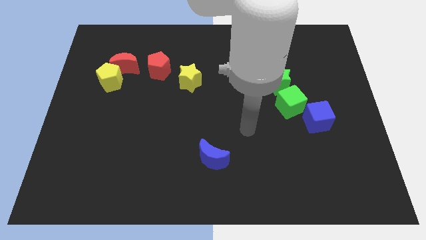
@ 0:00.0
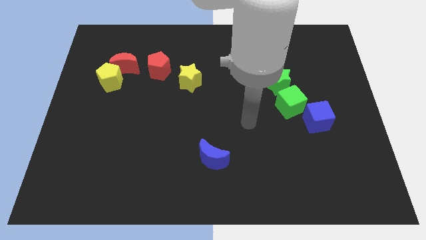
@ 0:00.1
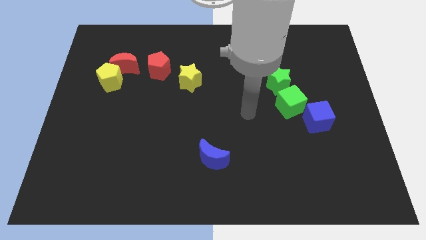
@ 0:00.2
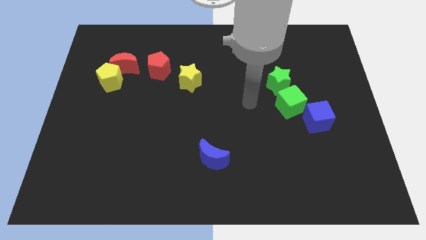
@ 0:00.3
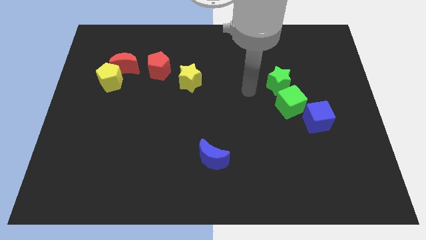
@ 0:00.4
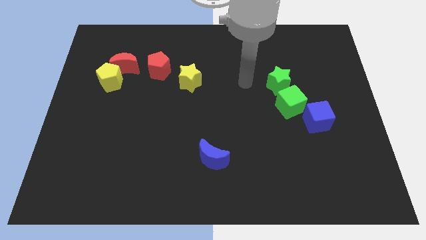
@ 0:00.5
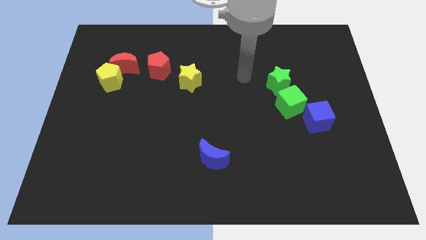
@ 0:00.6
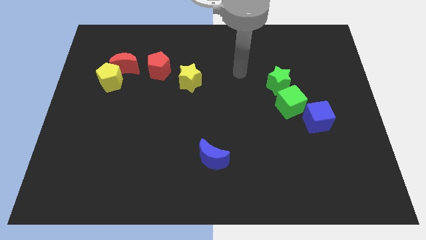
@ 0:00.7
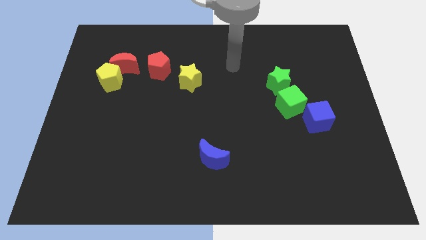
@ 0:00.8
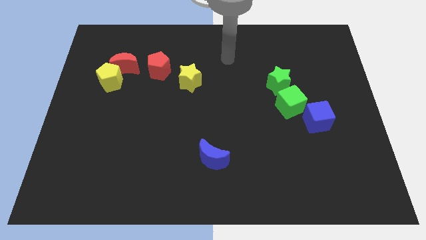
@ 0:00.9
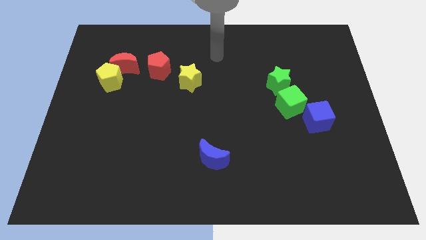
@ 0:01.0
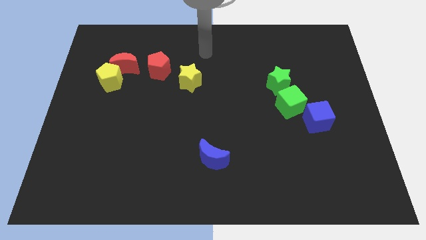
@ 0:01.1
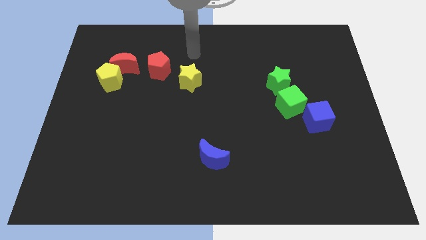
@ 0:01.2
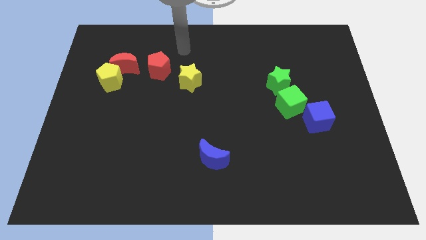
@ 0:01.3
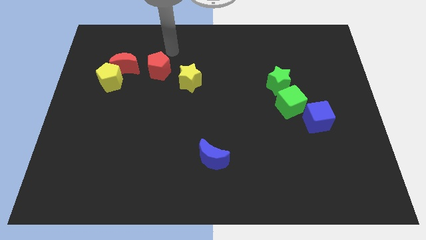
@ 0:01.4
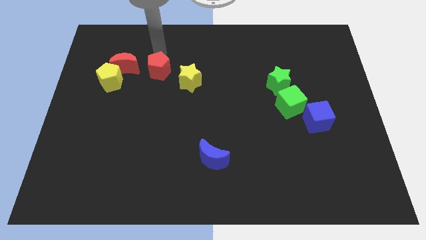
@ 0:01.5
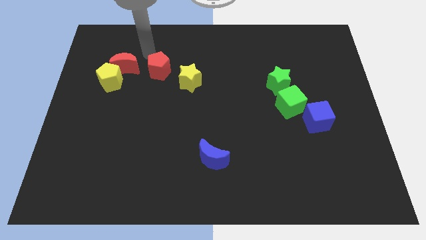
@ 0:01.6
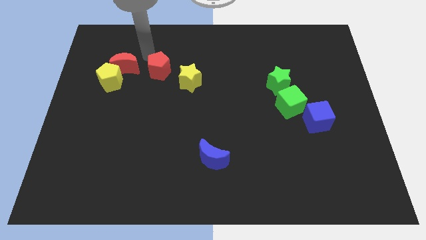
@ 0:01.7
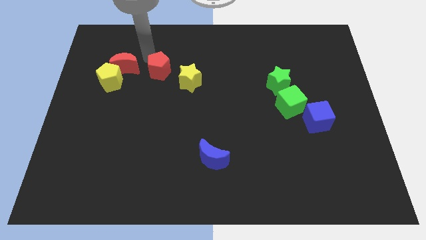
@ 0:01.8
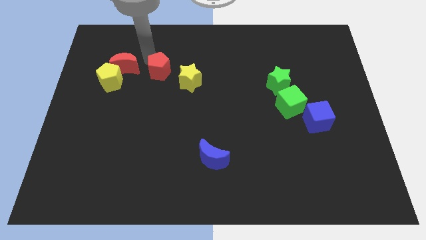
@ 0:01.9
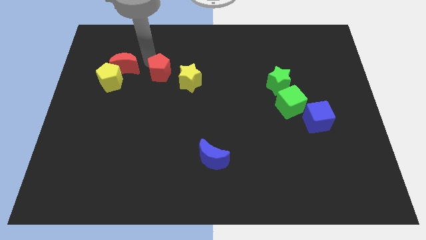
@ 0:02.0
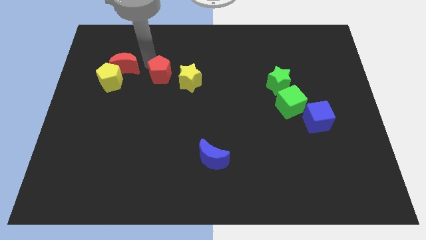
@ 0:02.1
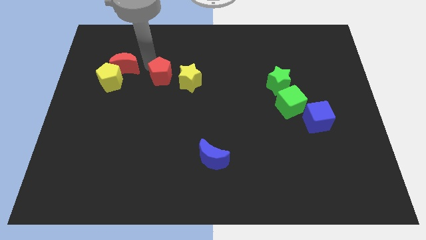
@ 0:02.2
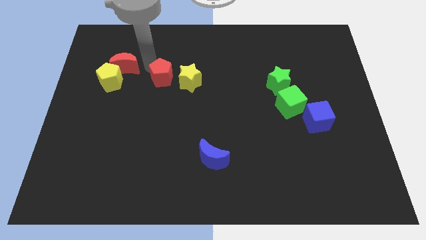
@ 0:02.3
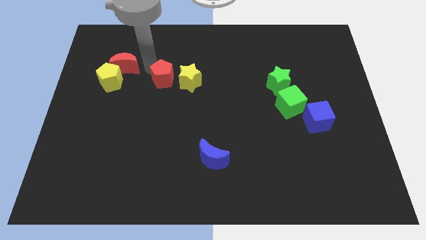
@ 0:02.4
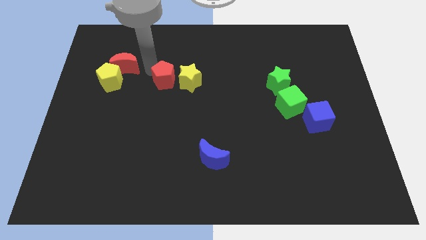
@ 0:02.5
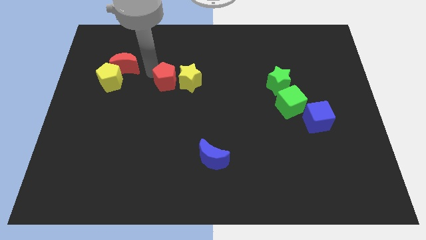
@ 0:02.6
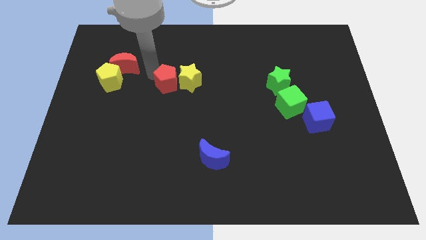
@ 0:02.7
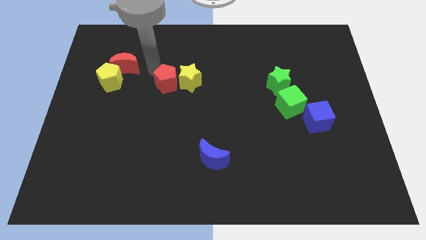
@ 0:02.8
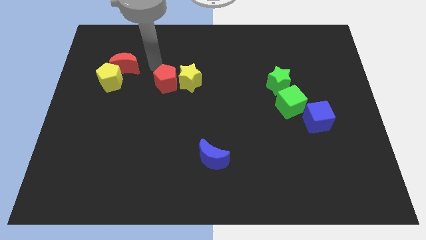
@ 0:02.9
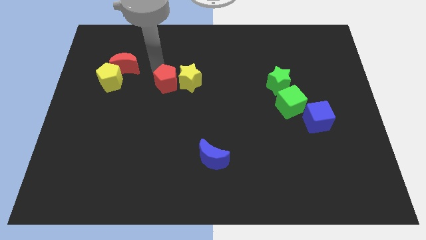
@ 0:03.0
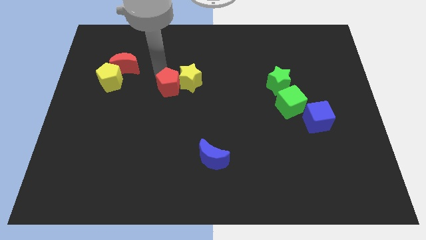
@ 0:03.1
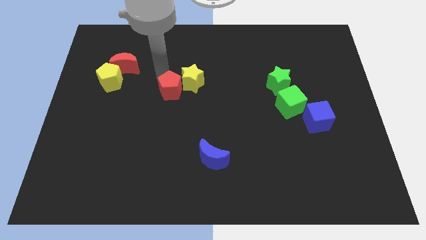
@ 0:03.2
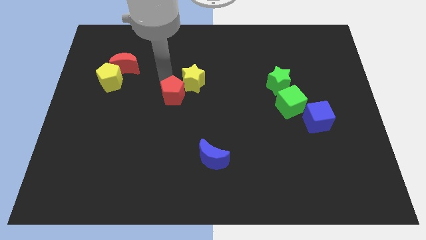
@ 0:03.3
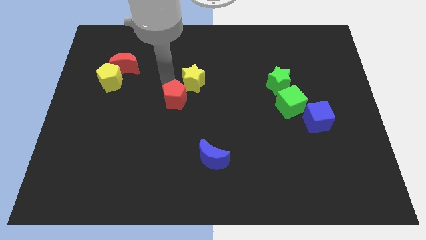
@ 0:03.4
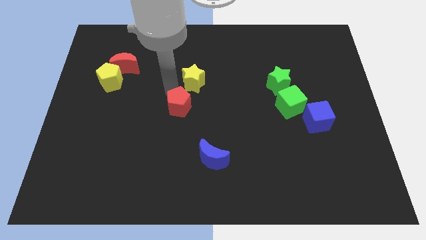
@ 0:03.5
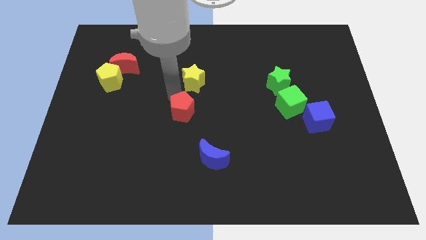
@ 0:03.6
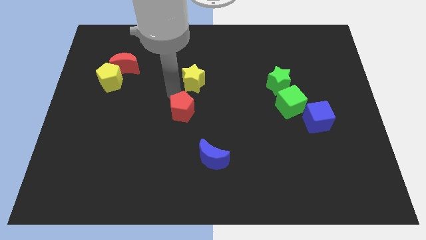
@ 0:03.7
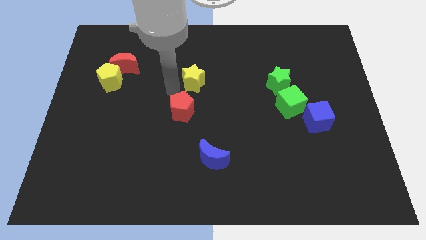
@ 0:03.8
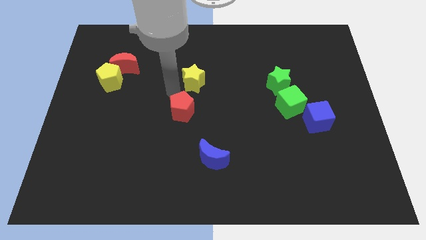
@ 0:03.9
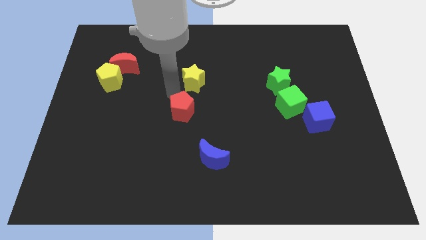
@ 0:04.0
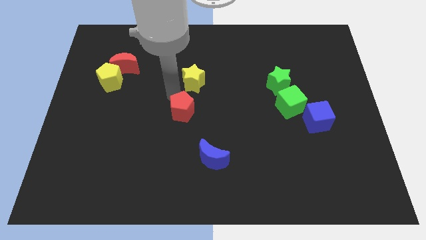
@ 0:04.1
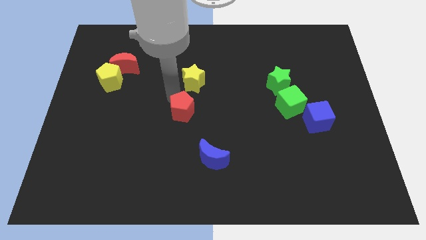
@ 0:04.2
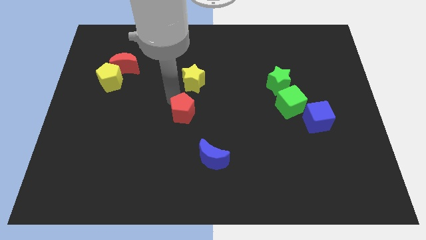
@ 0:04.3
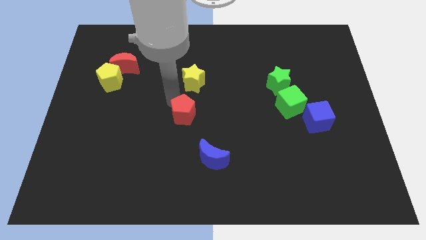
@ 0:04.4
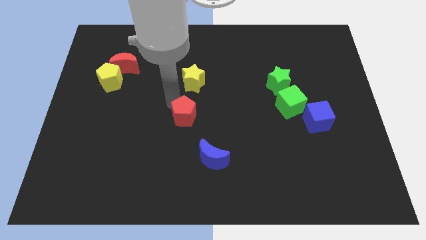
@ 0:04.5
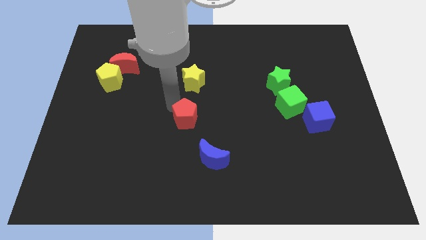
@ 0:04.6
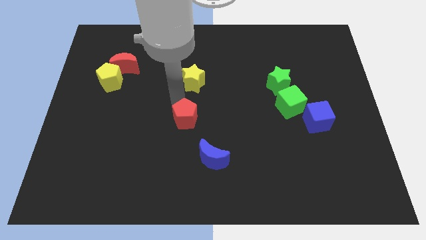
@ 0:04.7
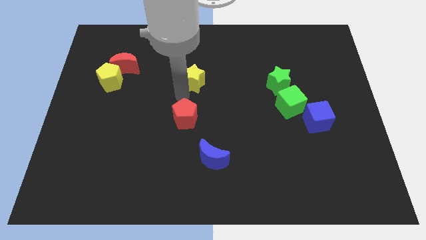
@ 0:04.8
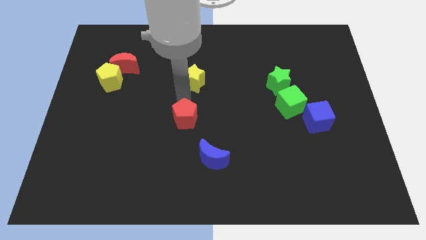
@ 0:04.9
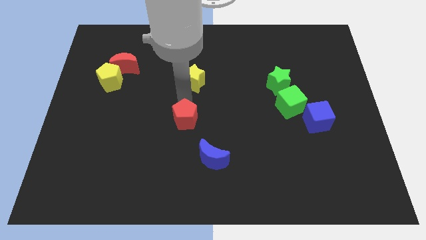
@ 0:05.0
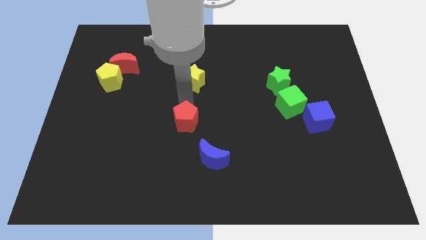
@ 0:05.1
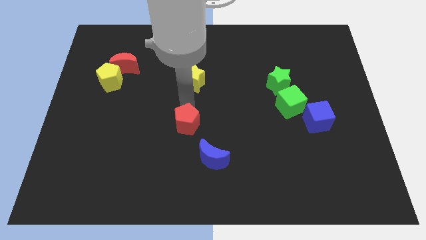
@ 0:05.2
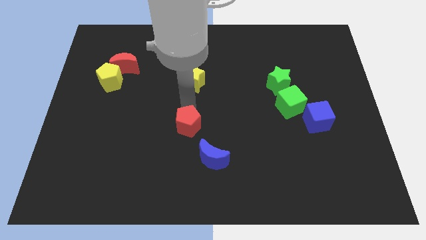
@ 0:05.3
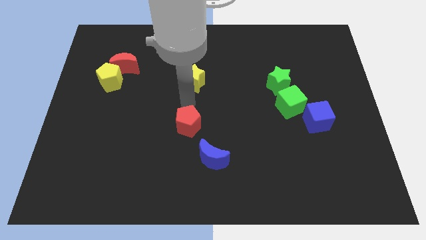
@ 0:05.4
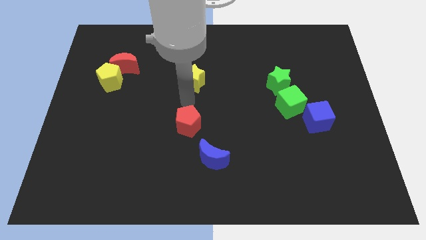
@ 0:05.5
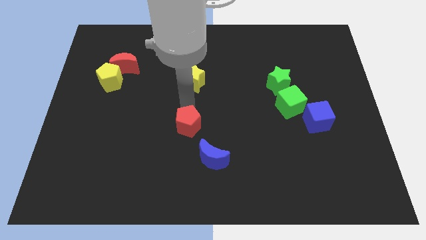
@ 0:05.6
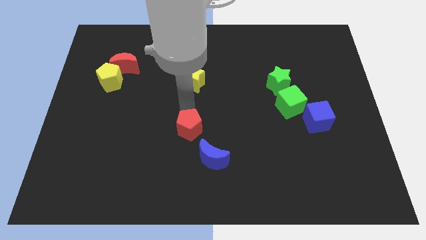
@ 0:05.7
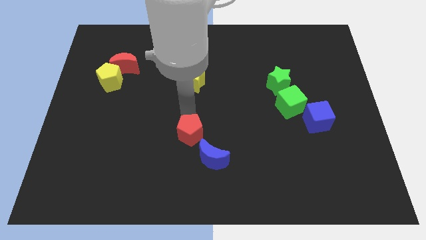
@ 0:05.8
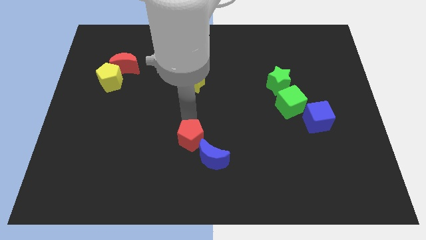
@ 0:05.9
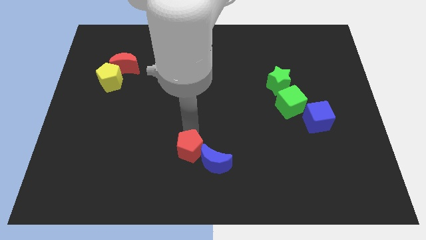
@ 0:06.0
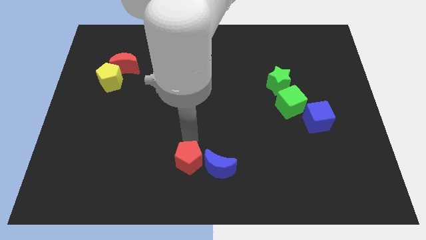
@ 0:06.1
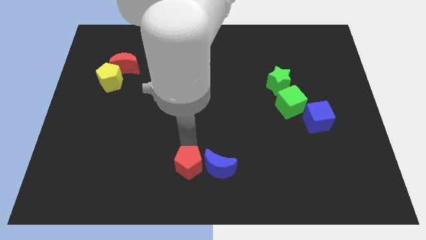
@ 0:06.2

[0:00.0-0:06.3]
put the red pentagon to the bottom left side of the blue moon

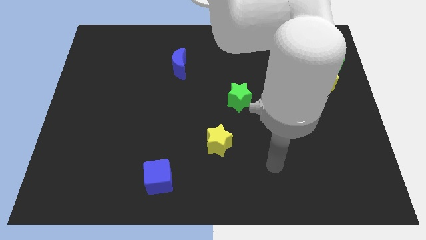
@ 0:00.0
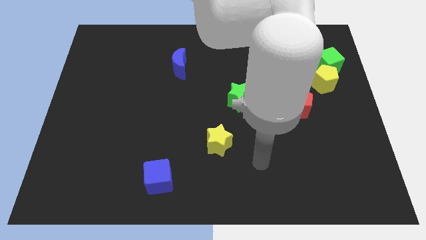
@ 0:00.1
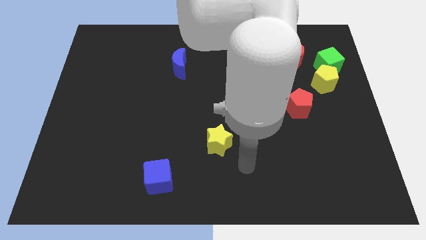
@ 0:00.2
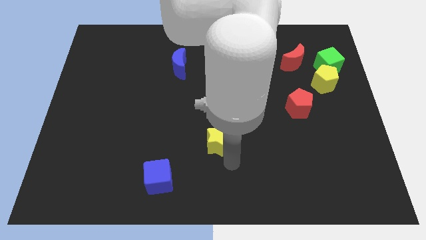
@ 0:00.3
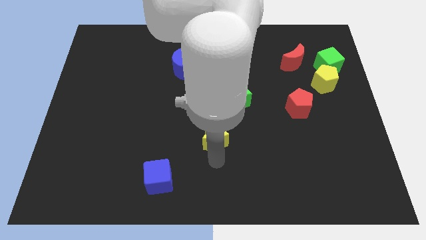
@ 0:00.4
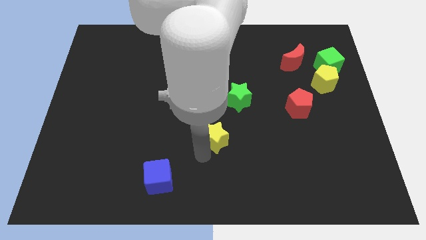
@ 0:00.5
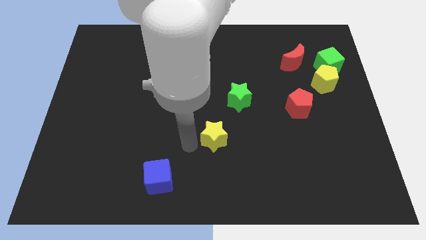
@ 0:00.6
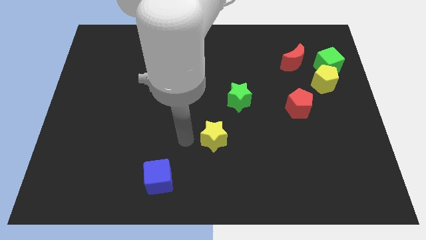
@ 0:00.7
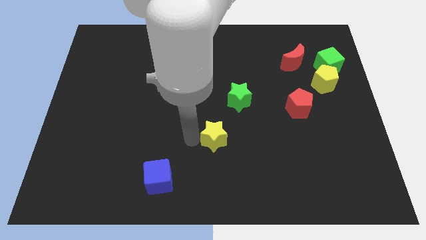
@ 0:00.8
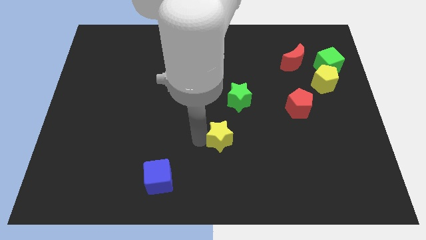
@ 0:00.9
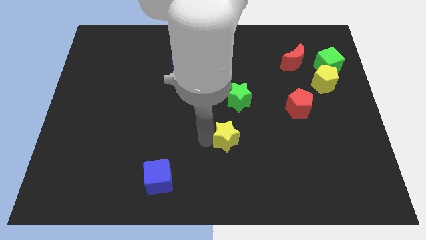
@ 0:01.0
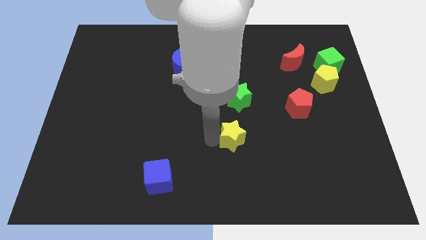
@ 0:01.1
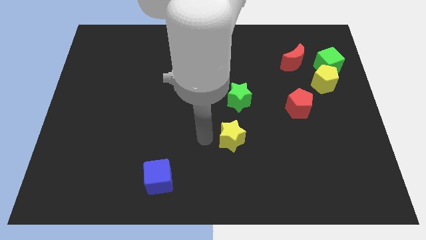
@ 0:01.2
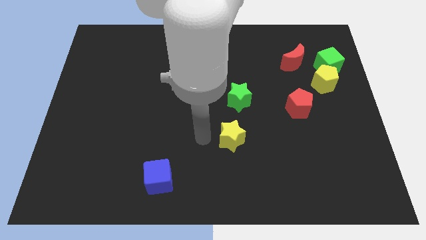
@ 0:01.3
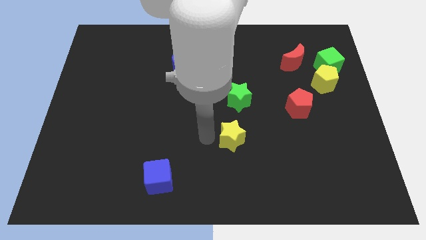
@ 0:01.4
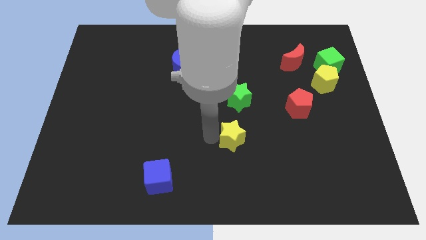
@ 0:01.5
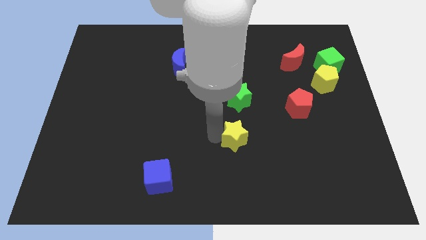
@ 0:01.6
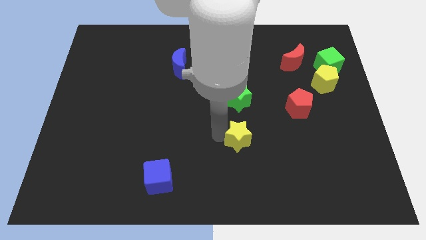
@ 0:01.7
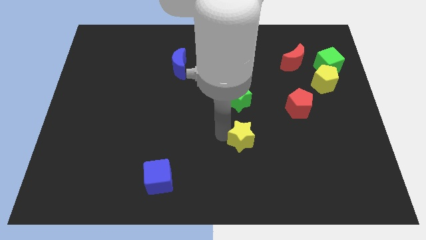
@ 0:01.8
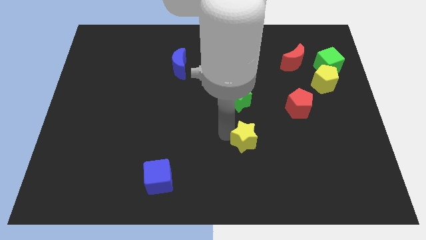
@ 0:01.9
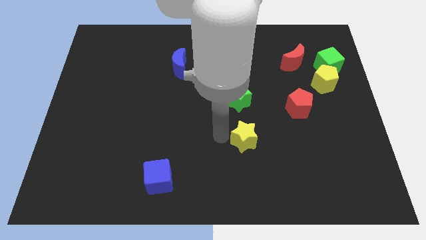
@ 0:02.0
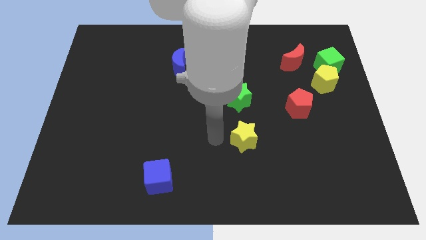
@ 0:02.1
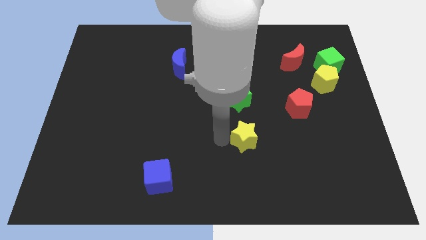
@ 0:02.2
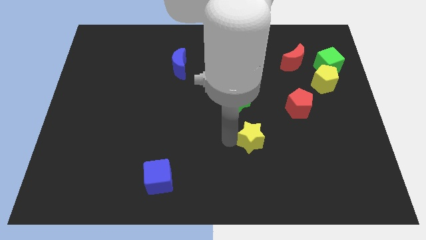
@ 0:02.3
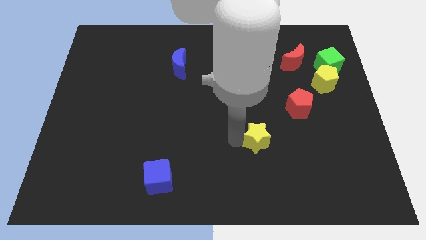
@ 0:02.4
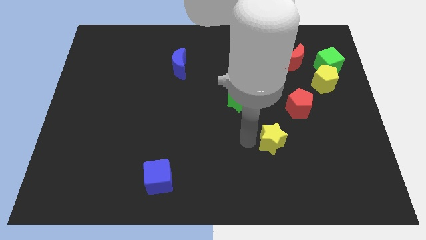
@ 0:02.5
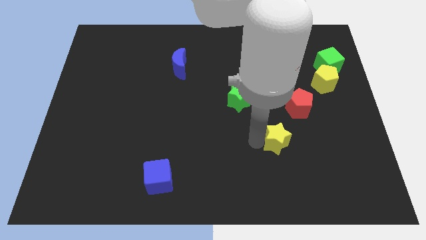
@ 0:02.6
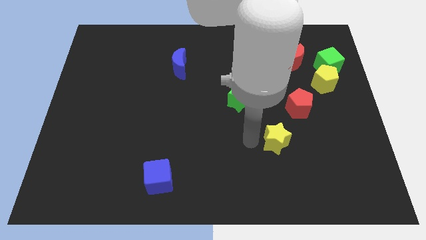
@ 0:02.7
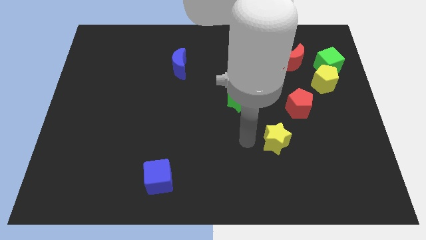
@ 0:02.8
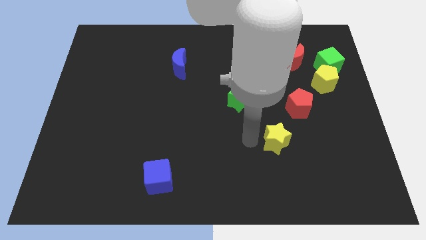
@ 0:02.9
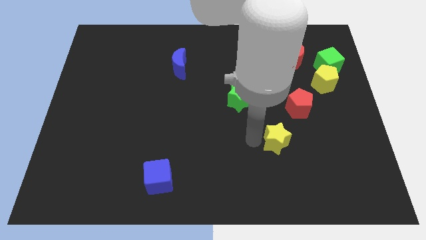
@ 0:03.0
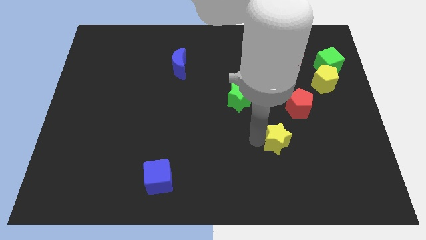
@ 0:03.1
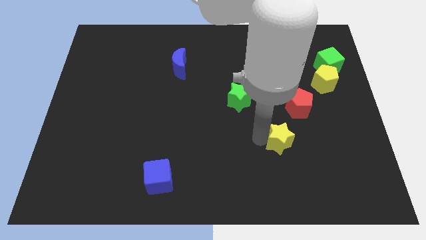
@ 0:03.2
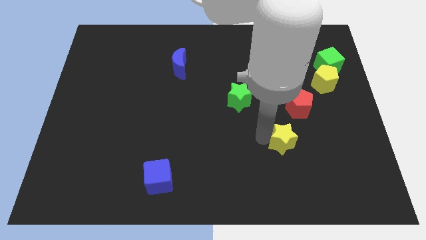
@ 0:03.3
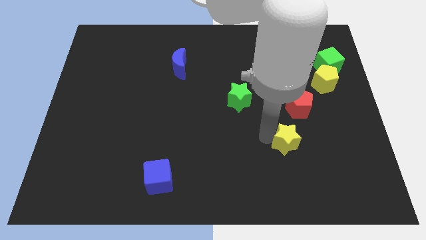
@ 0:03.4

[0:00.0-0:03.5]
move the yellow star to the bottom side of the red pentagon
